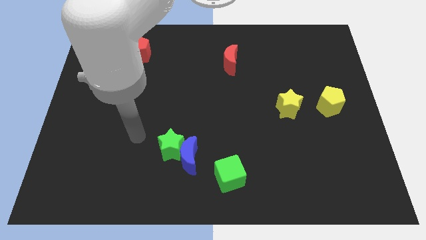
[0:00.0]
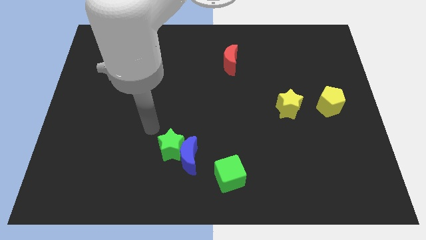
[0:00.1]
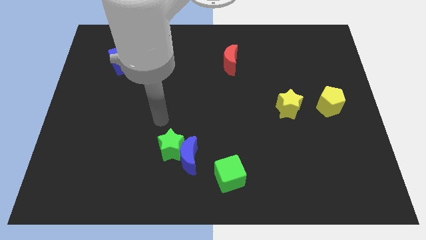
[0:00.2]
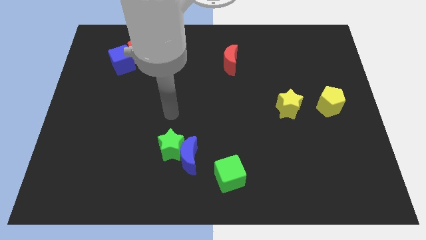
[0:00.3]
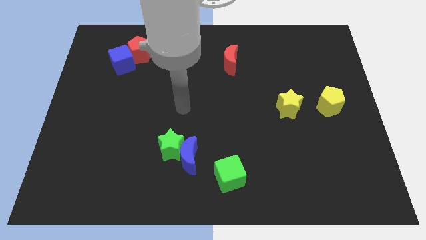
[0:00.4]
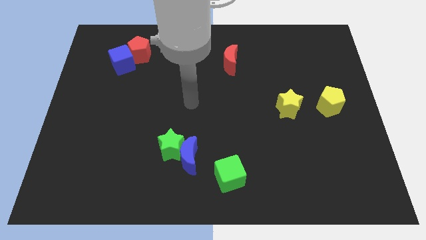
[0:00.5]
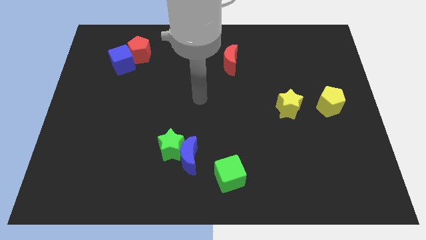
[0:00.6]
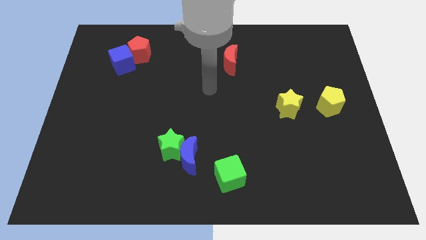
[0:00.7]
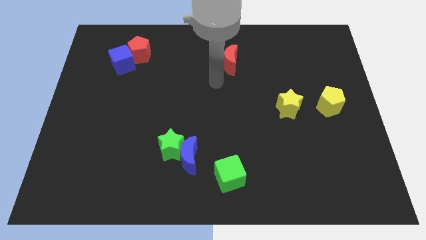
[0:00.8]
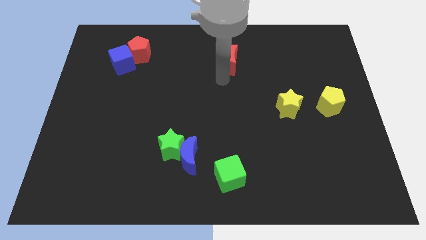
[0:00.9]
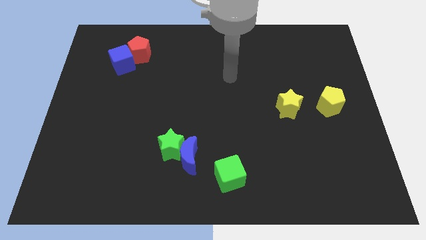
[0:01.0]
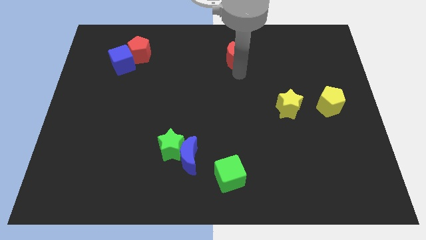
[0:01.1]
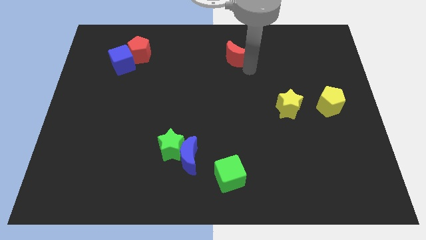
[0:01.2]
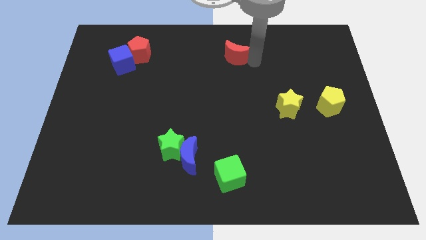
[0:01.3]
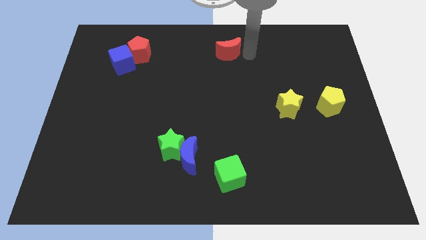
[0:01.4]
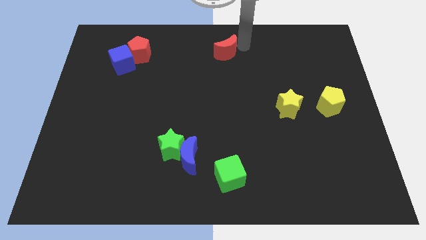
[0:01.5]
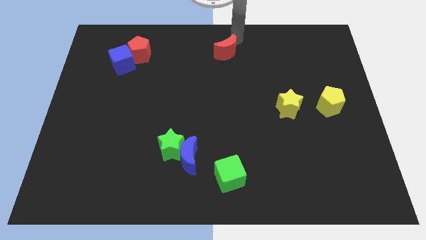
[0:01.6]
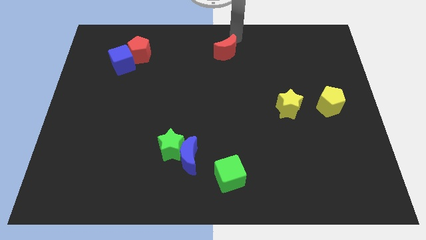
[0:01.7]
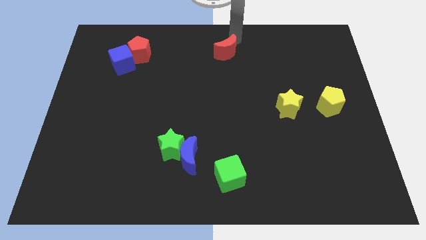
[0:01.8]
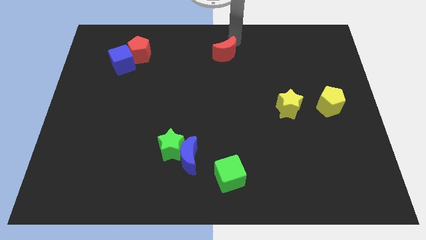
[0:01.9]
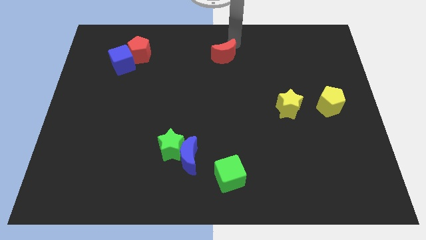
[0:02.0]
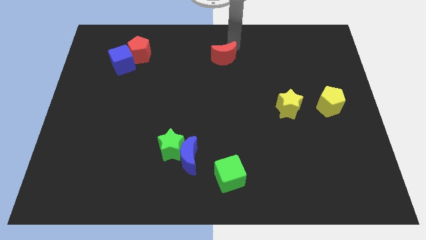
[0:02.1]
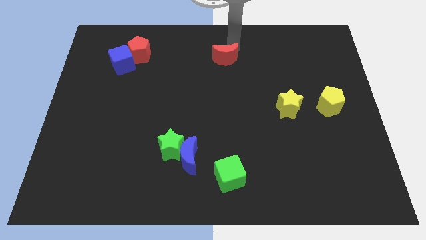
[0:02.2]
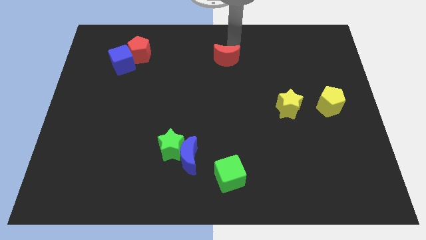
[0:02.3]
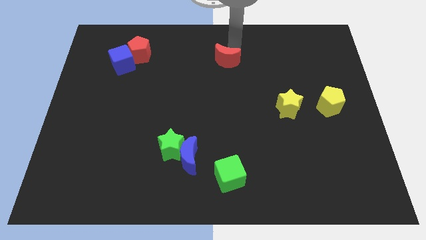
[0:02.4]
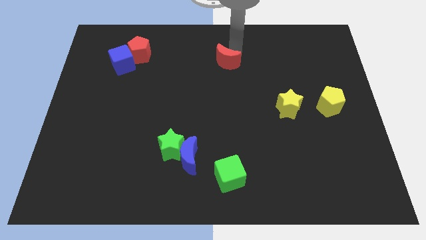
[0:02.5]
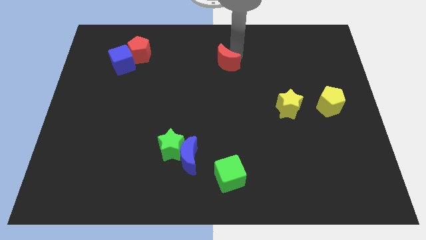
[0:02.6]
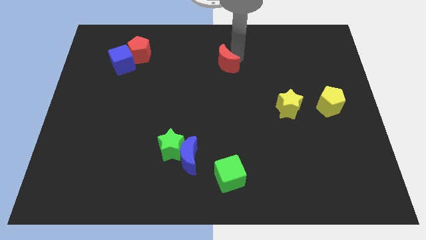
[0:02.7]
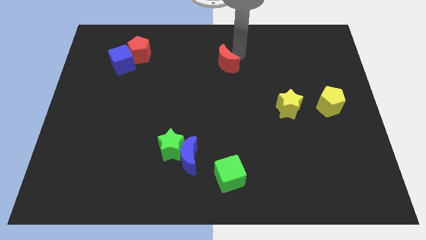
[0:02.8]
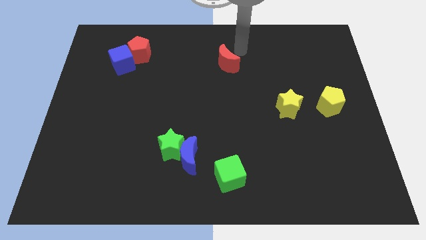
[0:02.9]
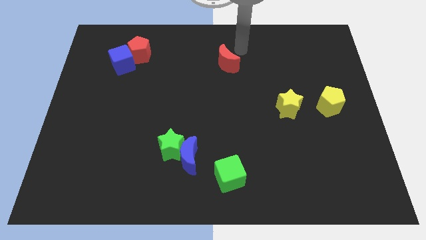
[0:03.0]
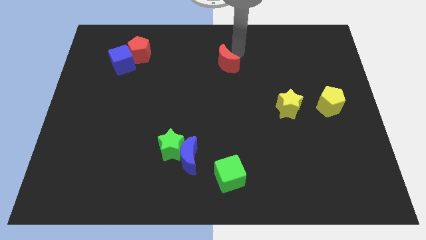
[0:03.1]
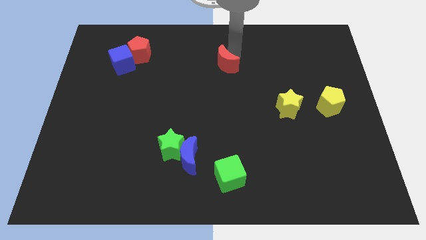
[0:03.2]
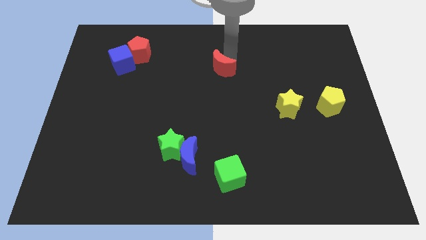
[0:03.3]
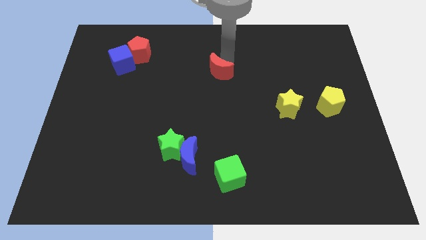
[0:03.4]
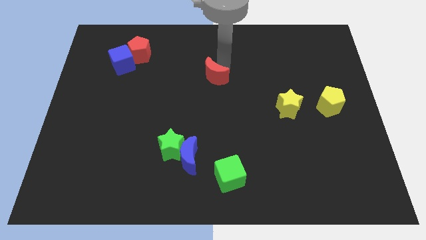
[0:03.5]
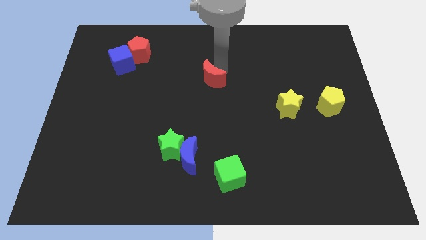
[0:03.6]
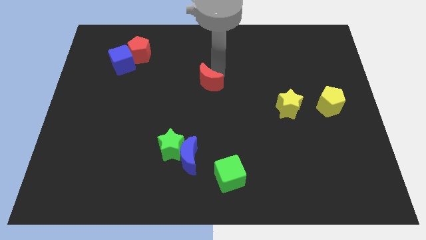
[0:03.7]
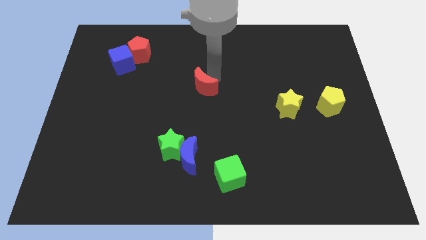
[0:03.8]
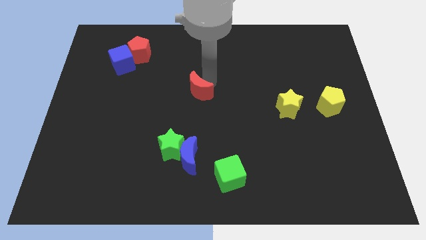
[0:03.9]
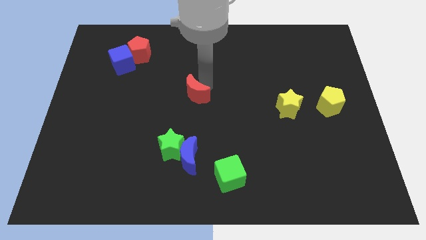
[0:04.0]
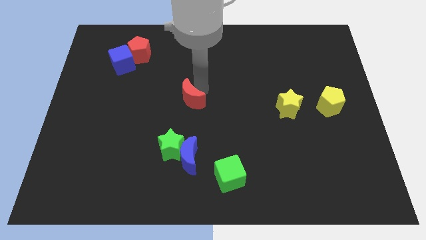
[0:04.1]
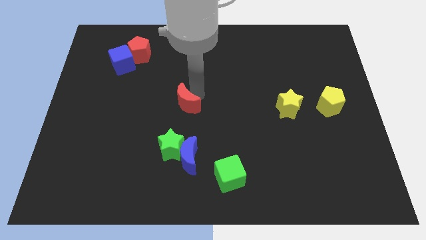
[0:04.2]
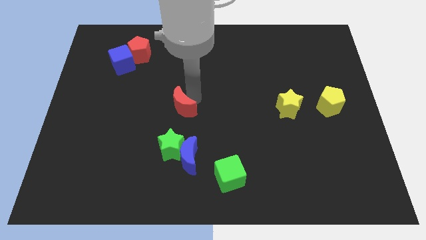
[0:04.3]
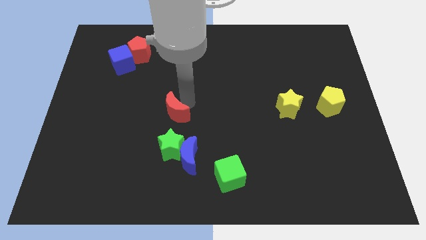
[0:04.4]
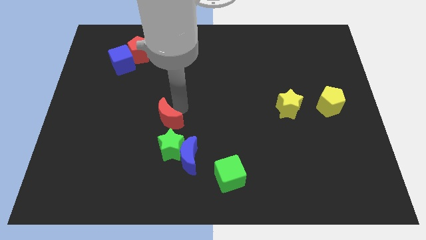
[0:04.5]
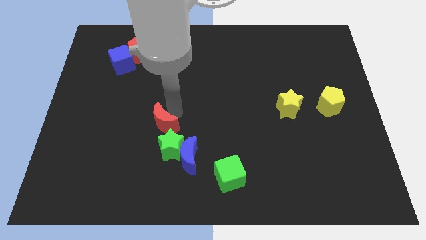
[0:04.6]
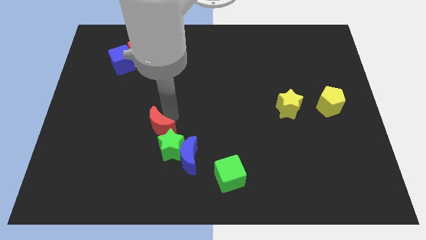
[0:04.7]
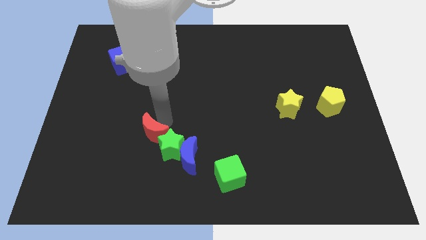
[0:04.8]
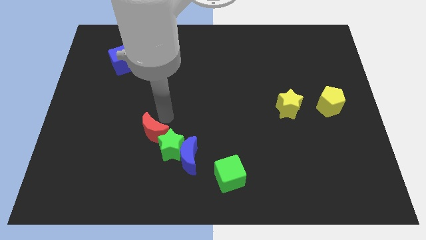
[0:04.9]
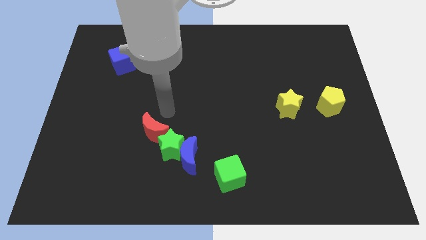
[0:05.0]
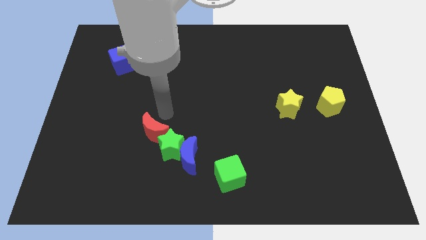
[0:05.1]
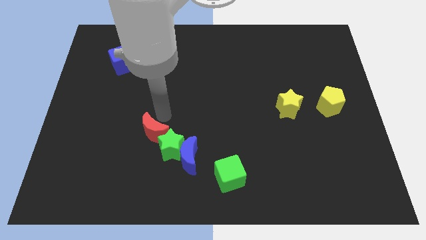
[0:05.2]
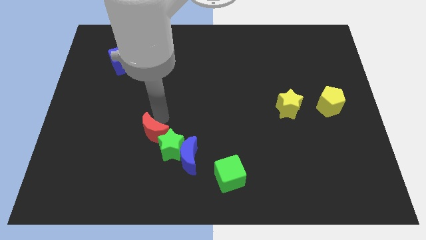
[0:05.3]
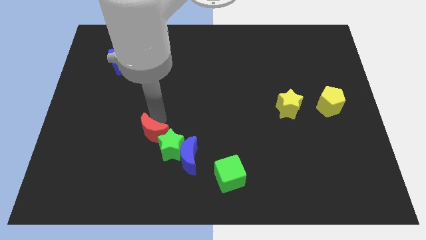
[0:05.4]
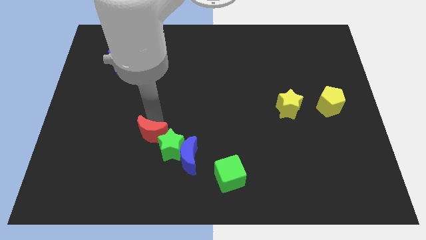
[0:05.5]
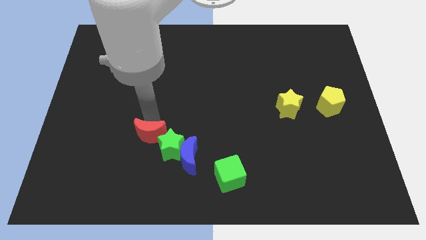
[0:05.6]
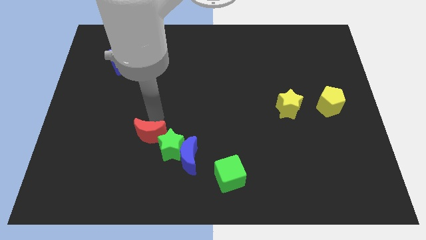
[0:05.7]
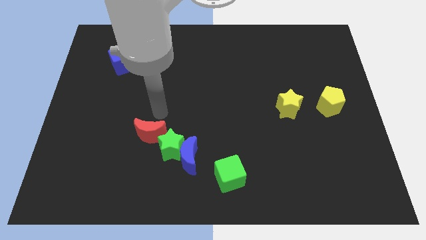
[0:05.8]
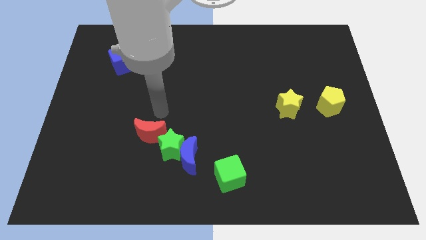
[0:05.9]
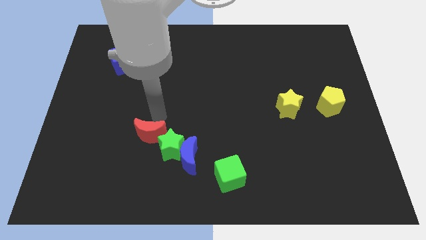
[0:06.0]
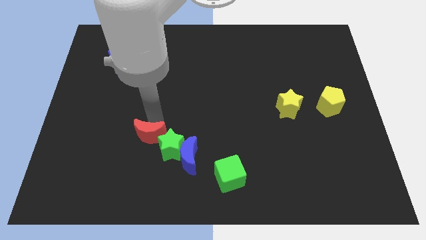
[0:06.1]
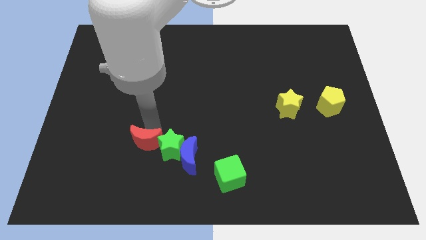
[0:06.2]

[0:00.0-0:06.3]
put the red moon to the left of the blue moon

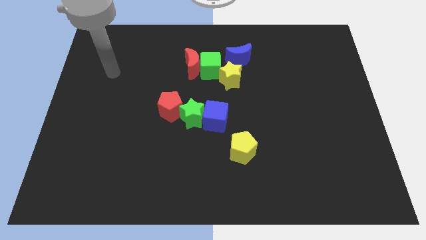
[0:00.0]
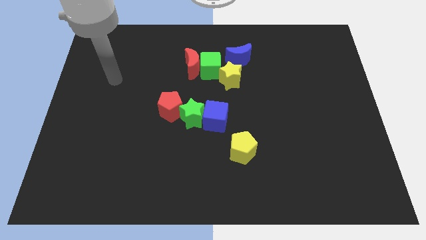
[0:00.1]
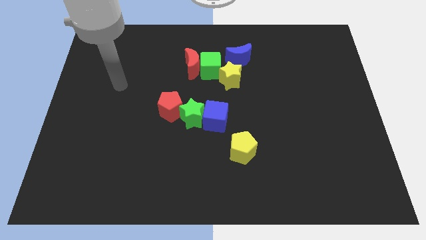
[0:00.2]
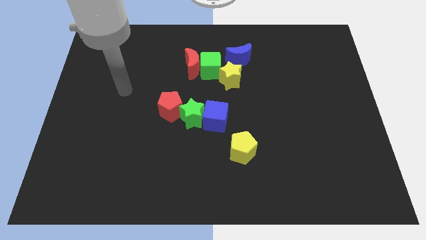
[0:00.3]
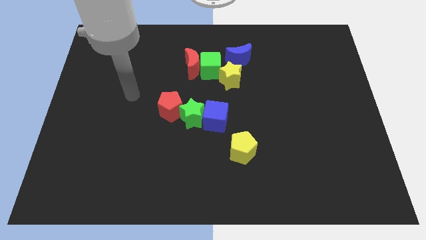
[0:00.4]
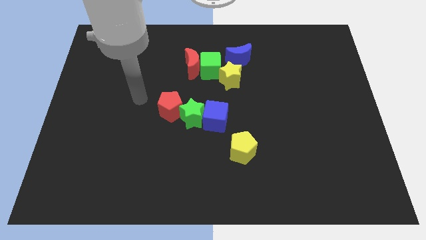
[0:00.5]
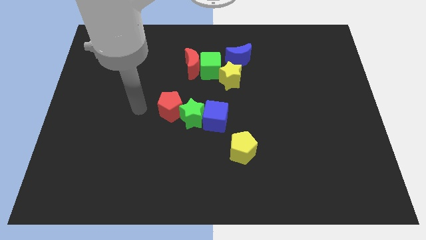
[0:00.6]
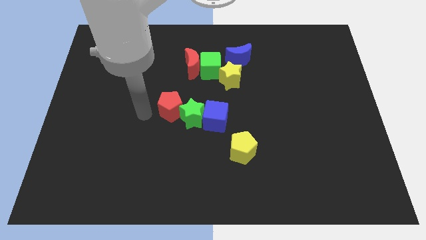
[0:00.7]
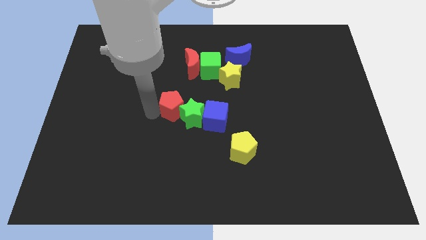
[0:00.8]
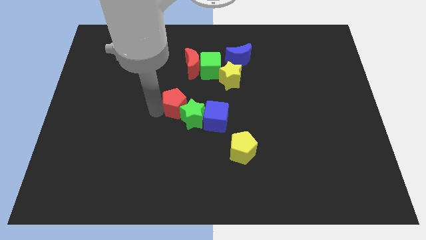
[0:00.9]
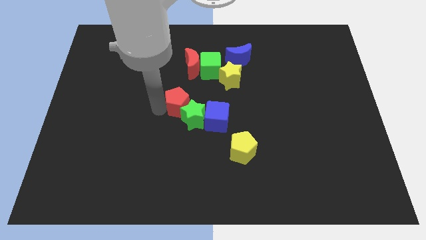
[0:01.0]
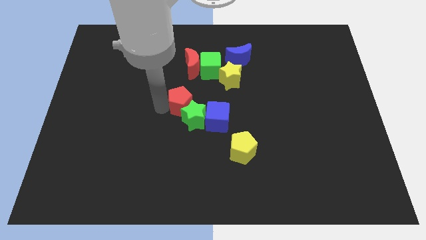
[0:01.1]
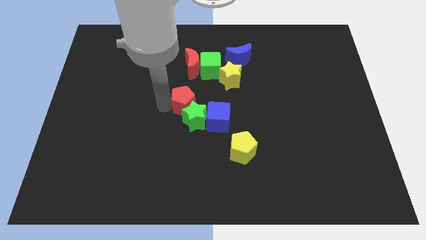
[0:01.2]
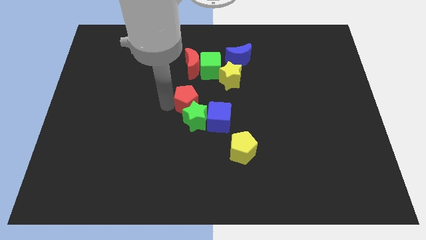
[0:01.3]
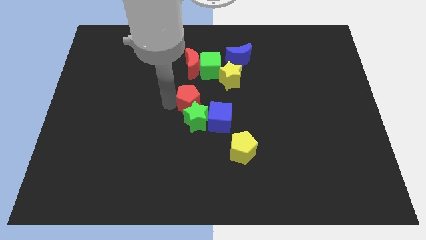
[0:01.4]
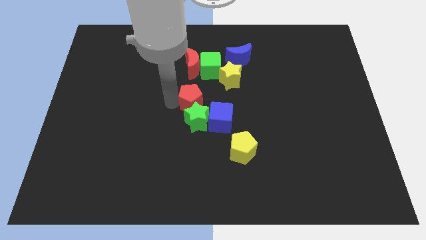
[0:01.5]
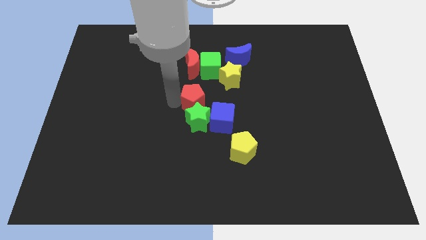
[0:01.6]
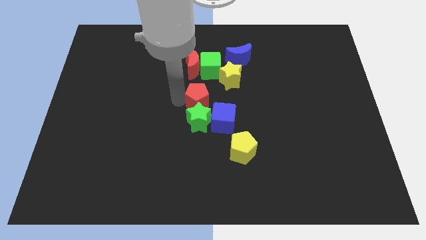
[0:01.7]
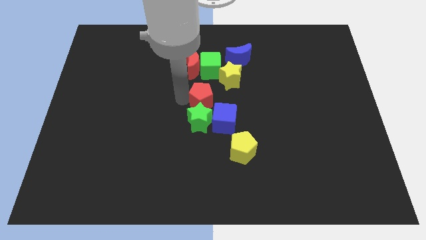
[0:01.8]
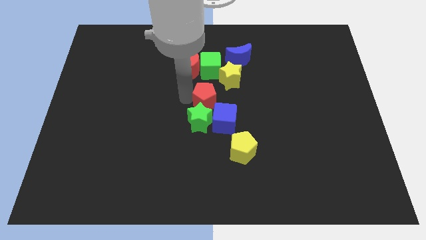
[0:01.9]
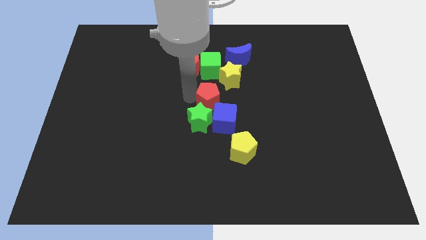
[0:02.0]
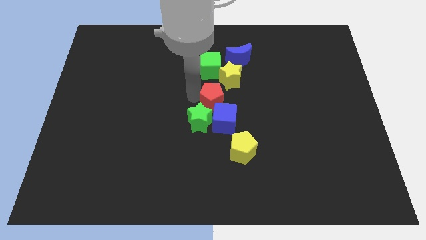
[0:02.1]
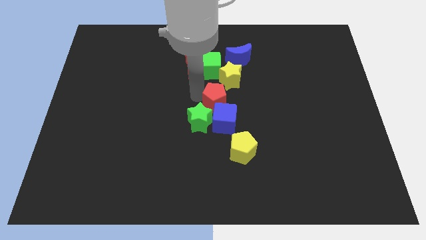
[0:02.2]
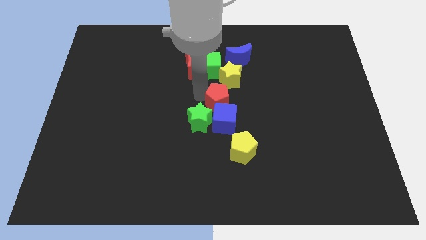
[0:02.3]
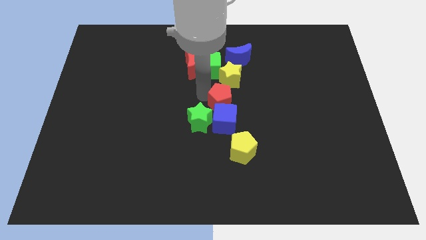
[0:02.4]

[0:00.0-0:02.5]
push the red pentagon to the top of the yellow pentagon
